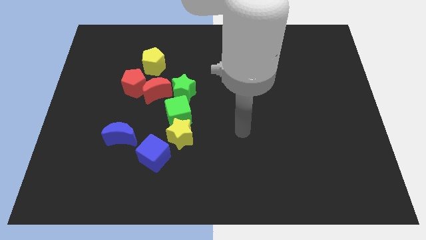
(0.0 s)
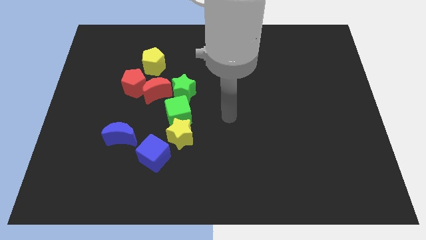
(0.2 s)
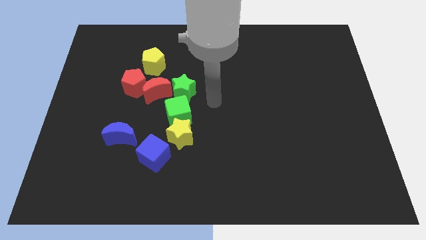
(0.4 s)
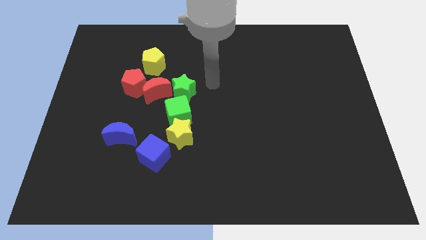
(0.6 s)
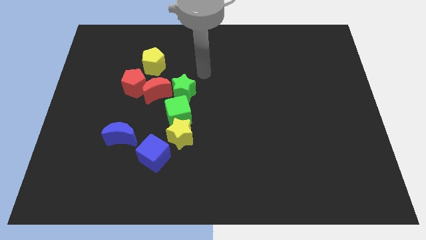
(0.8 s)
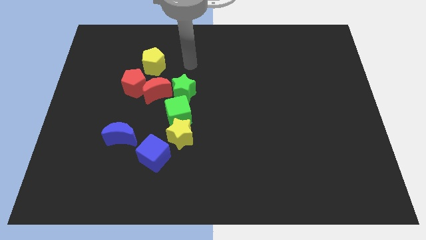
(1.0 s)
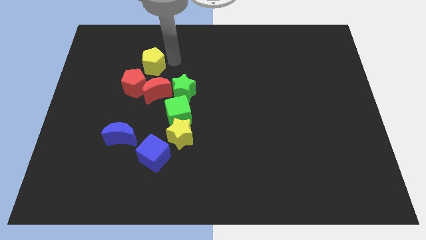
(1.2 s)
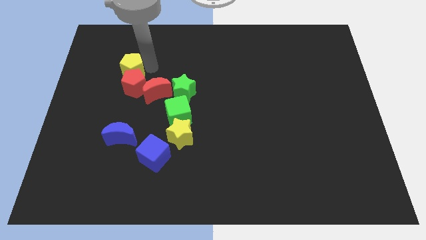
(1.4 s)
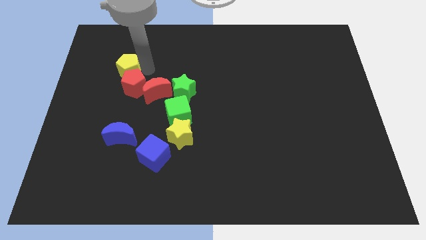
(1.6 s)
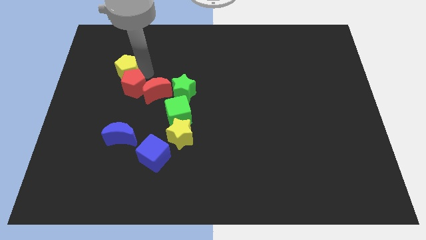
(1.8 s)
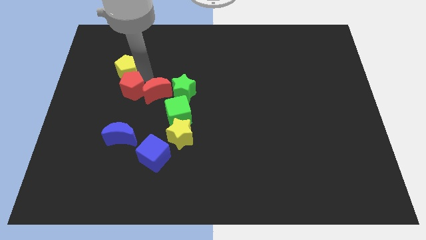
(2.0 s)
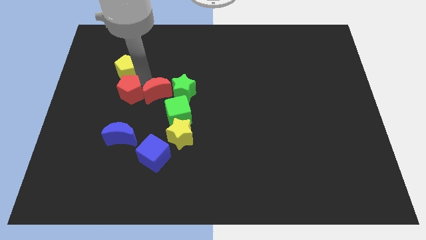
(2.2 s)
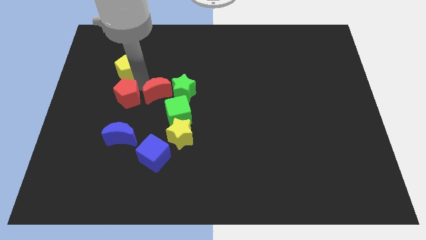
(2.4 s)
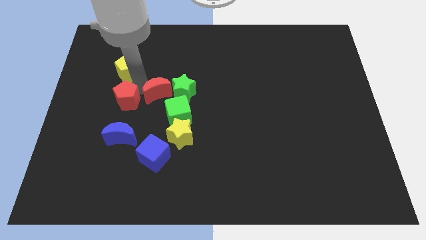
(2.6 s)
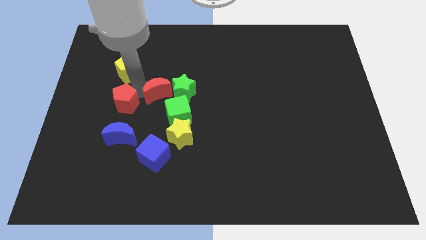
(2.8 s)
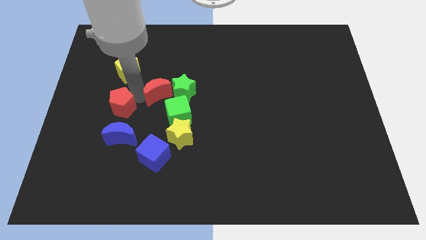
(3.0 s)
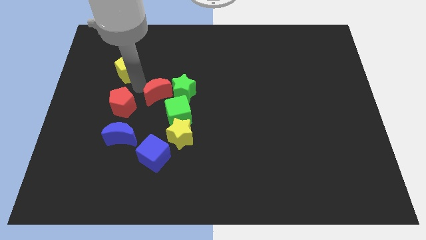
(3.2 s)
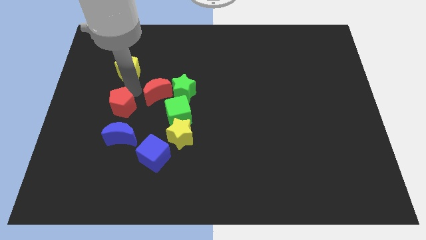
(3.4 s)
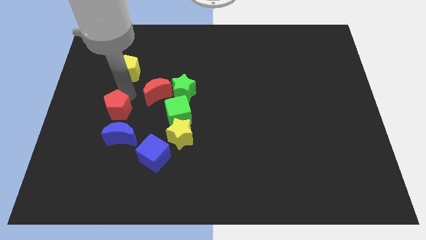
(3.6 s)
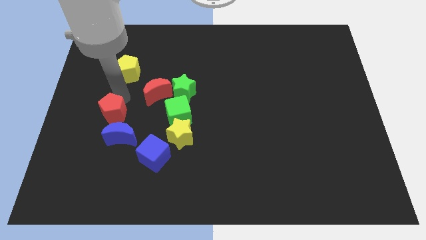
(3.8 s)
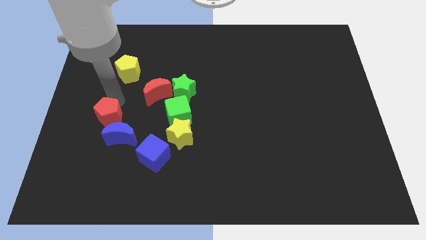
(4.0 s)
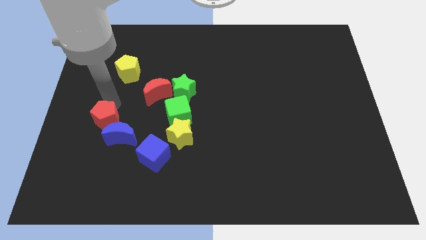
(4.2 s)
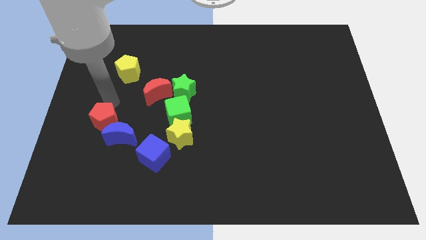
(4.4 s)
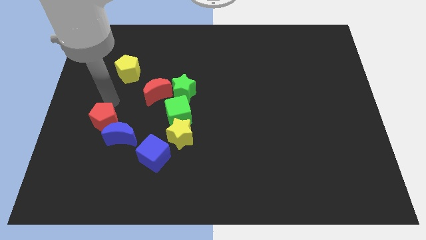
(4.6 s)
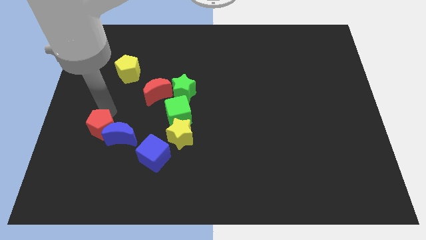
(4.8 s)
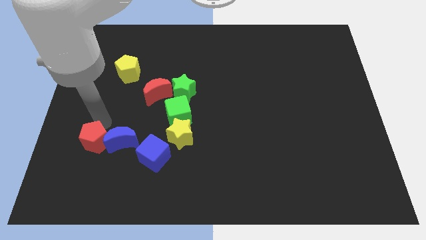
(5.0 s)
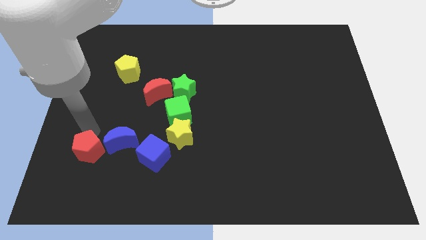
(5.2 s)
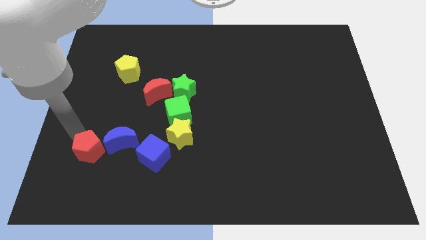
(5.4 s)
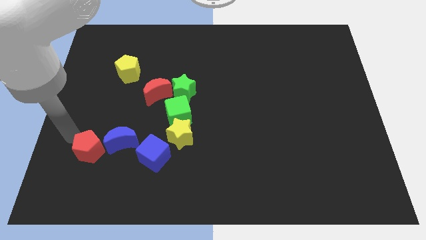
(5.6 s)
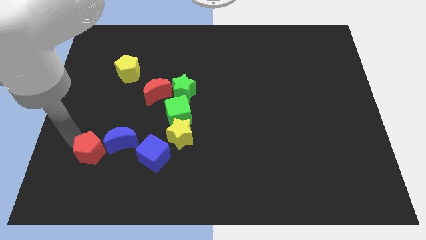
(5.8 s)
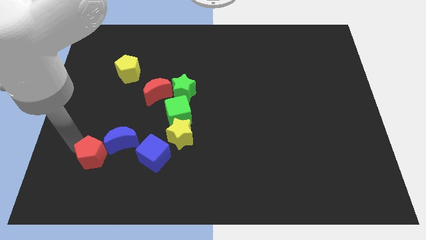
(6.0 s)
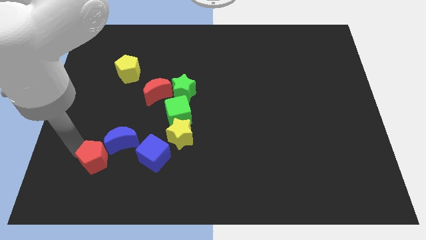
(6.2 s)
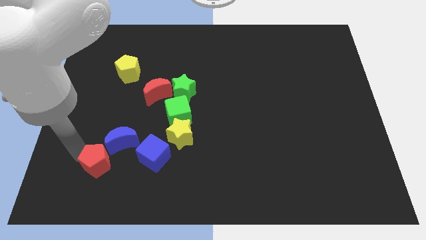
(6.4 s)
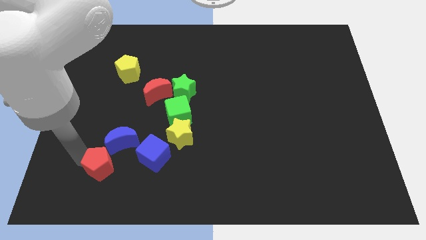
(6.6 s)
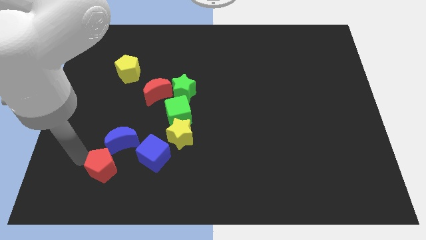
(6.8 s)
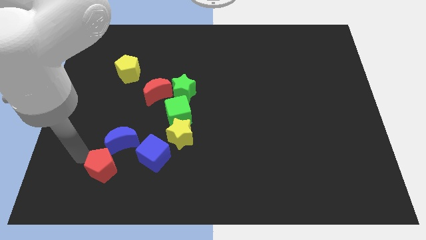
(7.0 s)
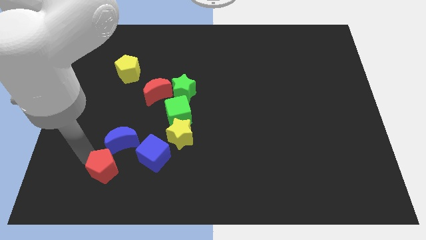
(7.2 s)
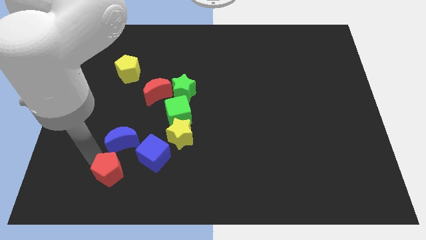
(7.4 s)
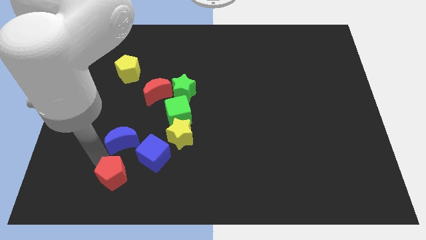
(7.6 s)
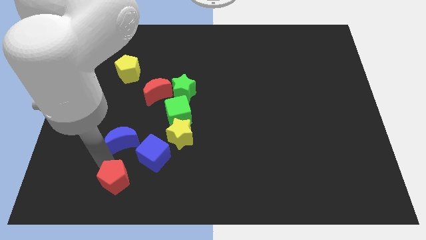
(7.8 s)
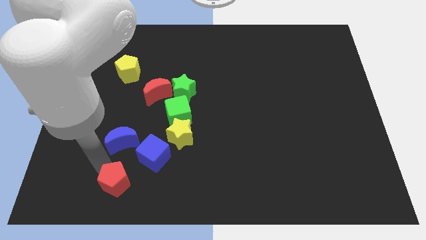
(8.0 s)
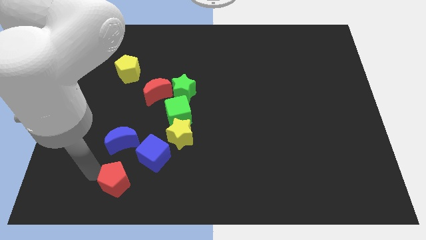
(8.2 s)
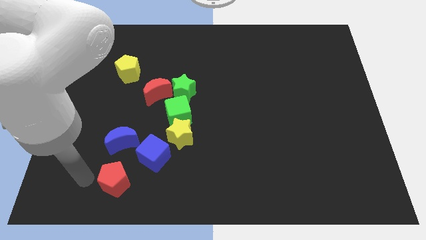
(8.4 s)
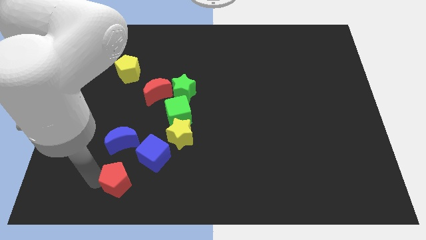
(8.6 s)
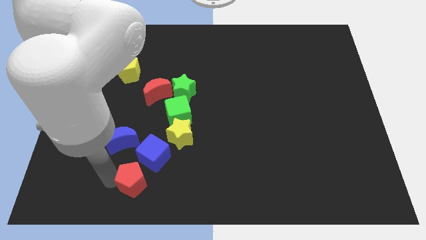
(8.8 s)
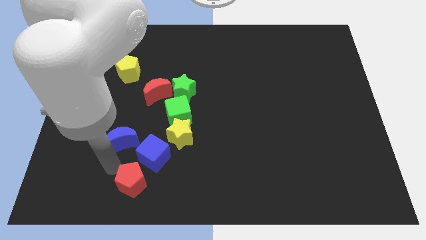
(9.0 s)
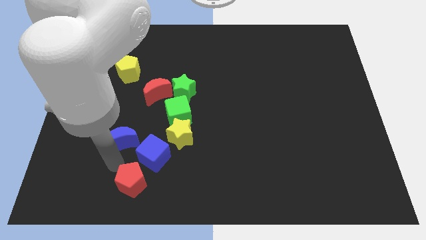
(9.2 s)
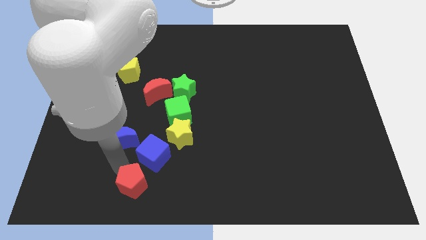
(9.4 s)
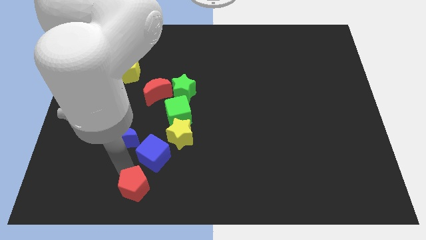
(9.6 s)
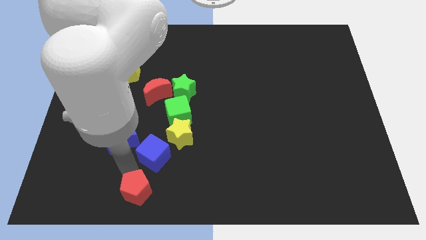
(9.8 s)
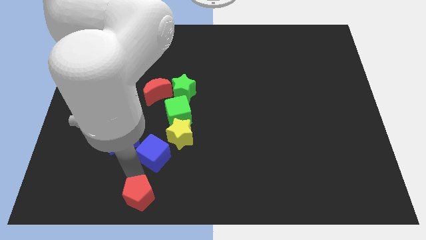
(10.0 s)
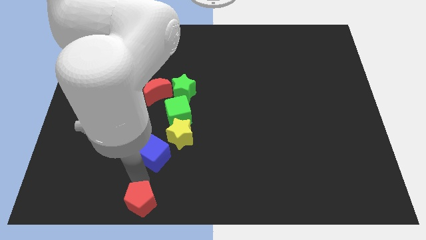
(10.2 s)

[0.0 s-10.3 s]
push the red pentagon to the bottom

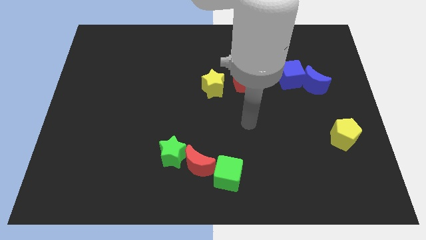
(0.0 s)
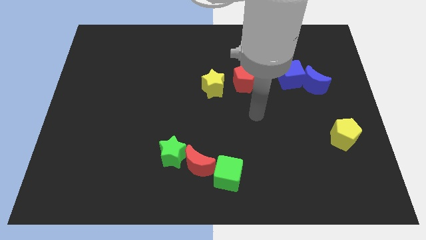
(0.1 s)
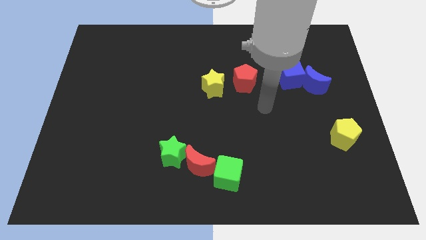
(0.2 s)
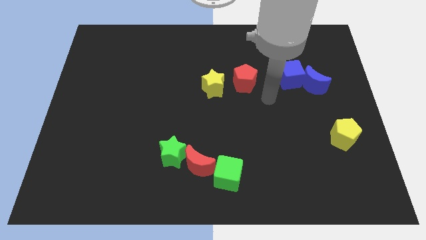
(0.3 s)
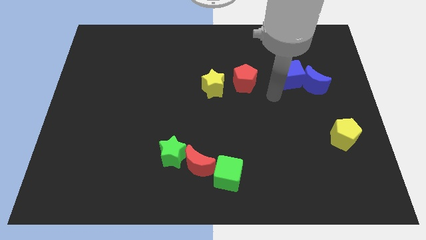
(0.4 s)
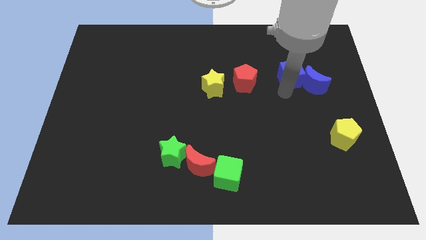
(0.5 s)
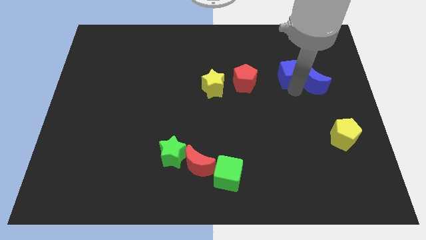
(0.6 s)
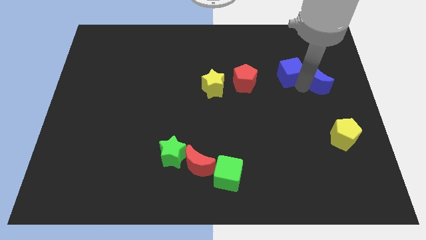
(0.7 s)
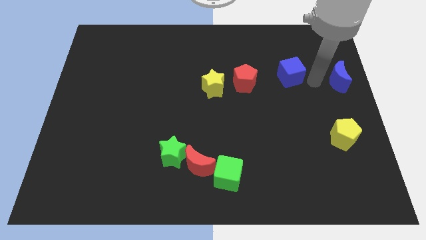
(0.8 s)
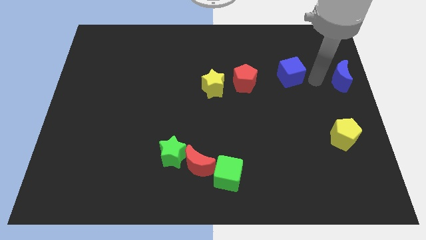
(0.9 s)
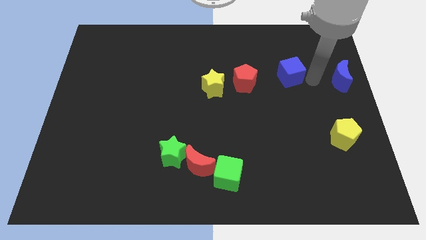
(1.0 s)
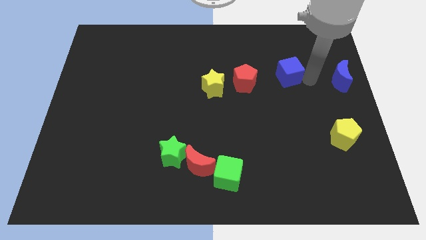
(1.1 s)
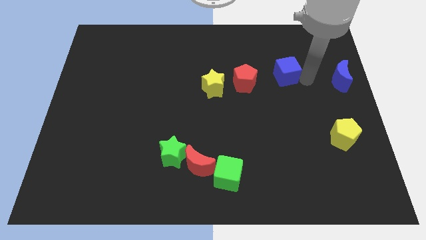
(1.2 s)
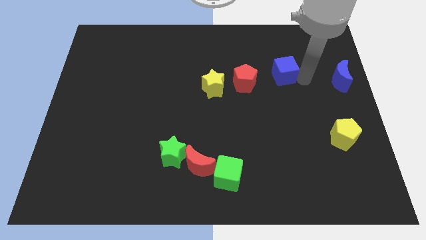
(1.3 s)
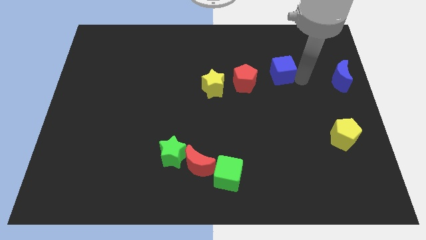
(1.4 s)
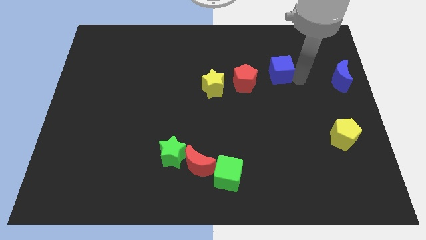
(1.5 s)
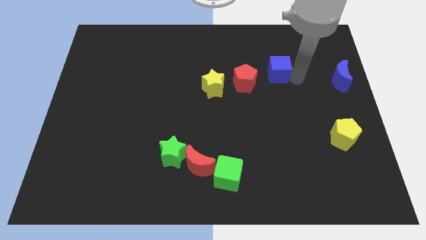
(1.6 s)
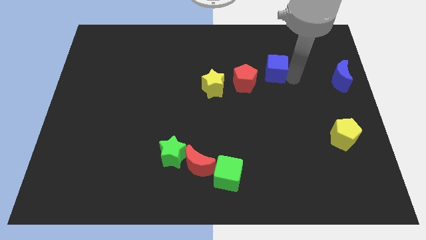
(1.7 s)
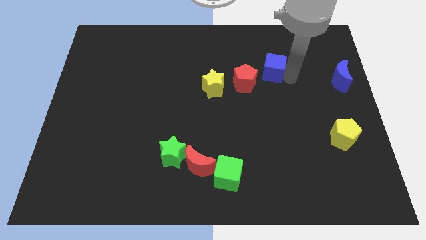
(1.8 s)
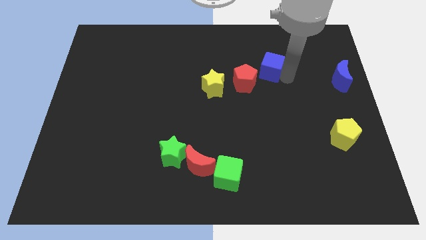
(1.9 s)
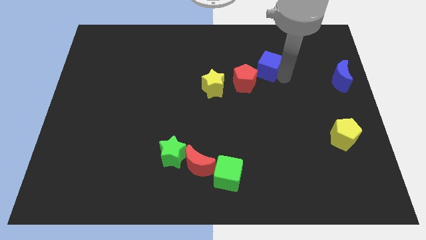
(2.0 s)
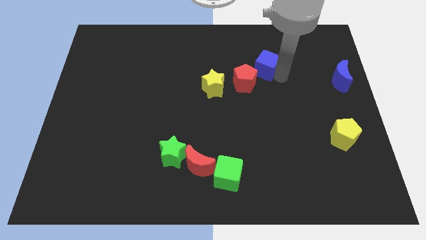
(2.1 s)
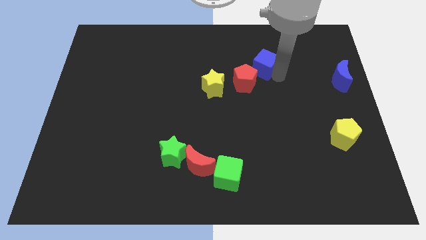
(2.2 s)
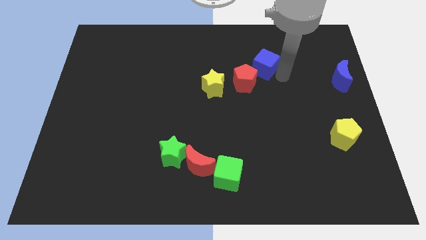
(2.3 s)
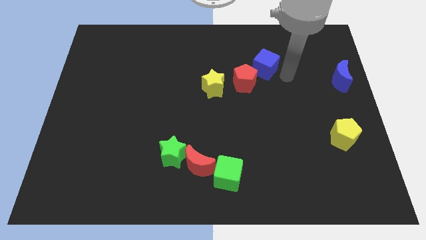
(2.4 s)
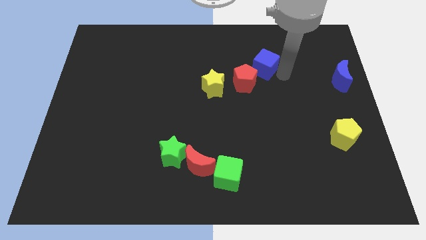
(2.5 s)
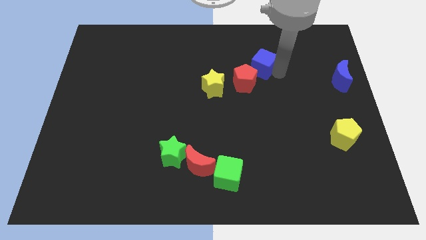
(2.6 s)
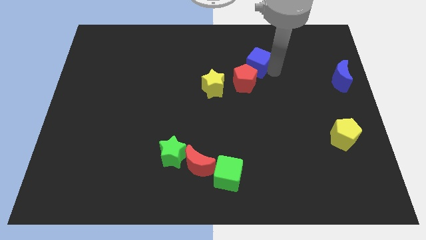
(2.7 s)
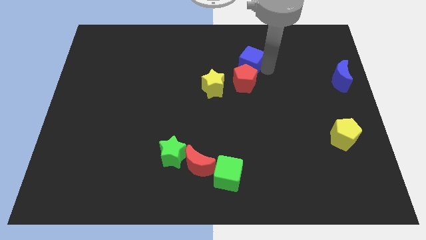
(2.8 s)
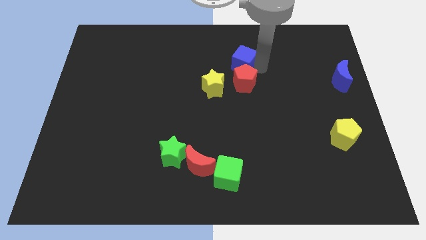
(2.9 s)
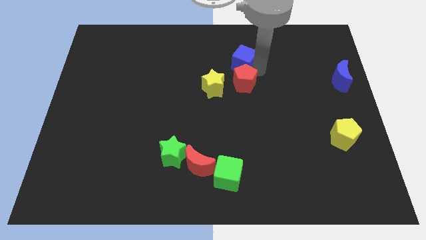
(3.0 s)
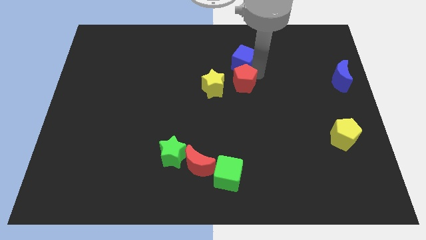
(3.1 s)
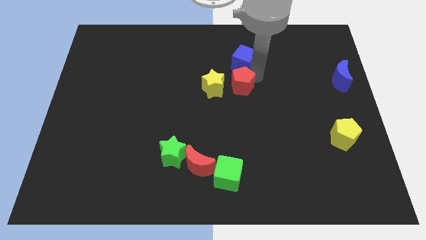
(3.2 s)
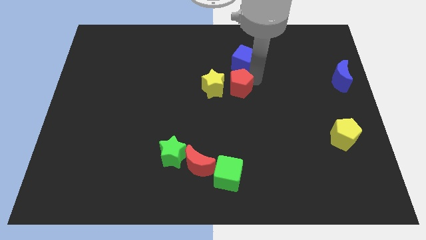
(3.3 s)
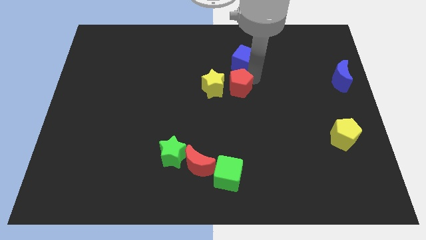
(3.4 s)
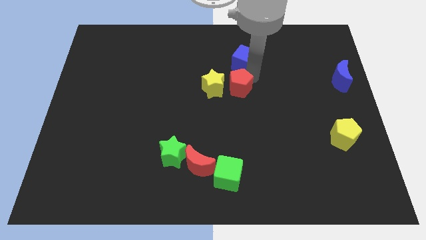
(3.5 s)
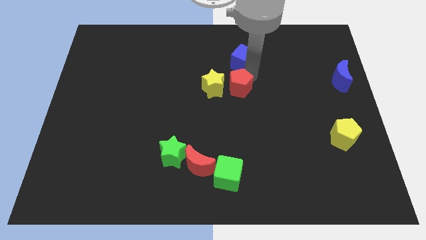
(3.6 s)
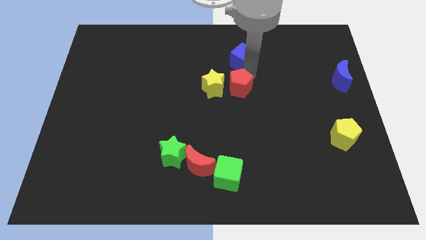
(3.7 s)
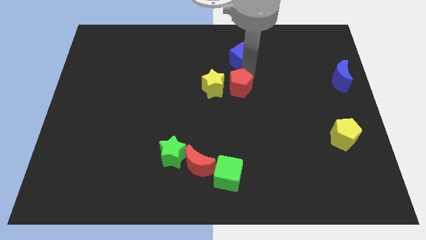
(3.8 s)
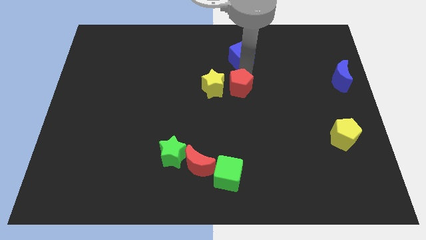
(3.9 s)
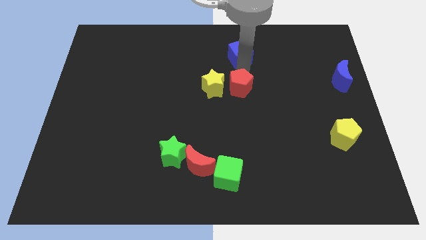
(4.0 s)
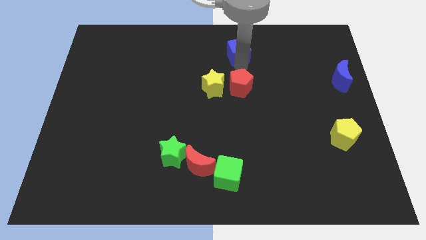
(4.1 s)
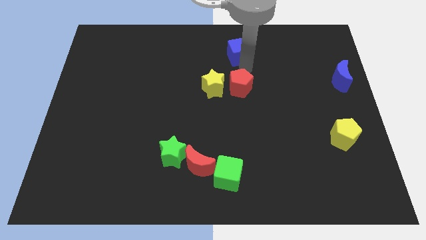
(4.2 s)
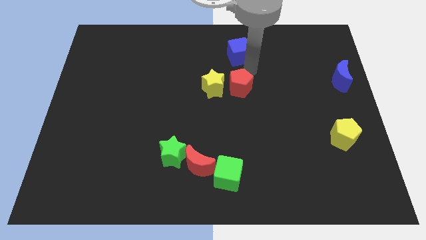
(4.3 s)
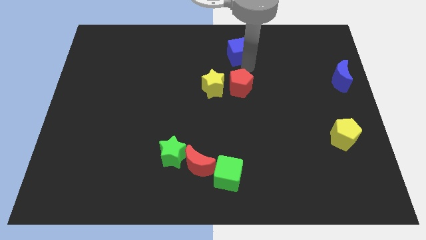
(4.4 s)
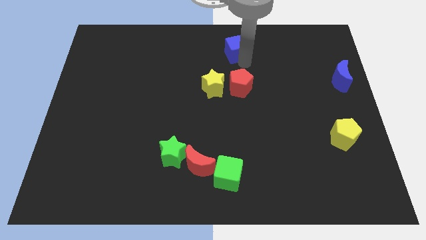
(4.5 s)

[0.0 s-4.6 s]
move the blue cube to the top side
